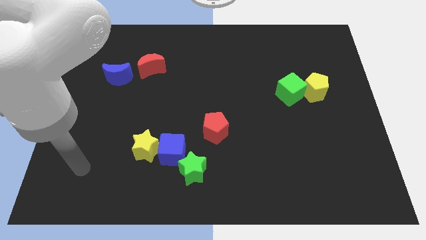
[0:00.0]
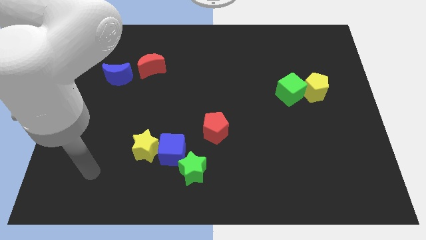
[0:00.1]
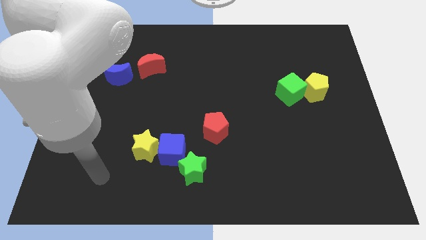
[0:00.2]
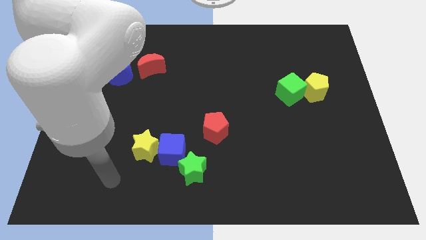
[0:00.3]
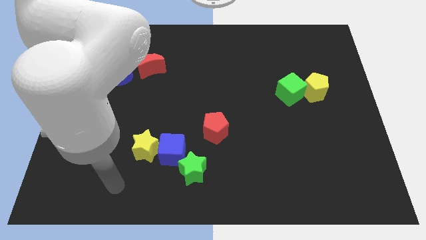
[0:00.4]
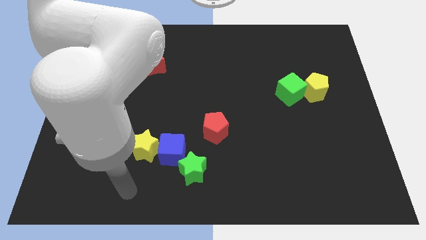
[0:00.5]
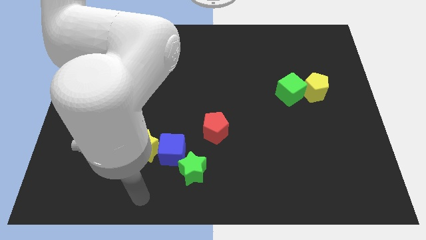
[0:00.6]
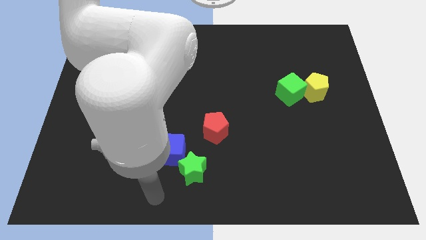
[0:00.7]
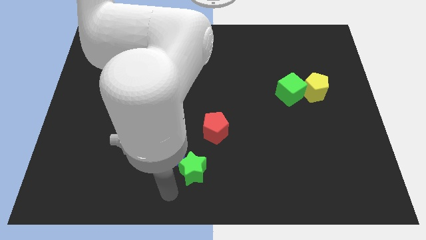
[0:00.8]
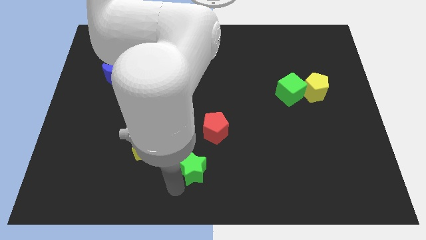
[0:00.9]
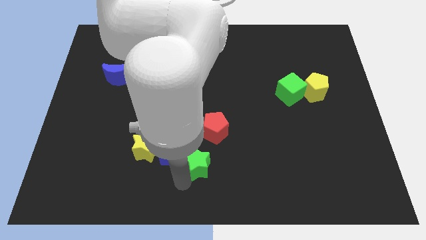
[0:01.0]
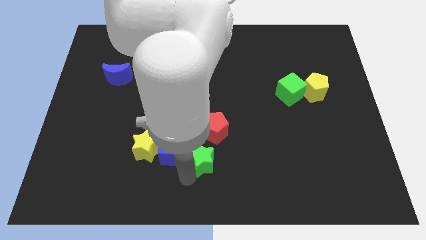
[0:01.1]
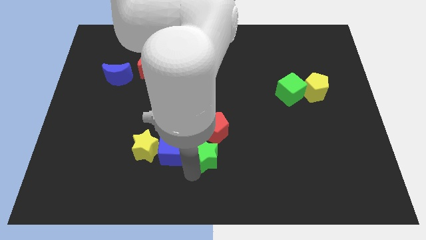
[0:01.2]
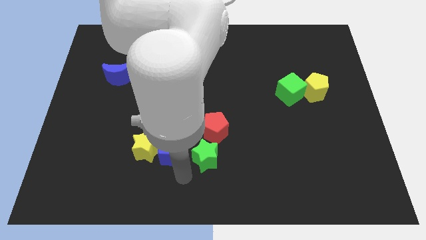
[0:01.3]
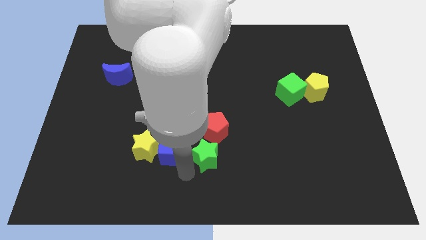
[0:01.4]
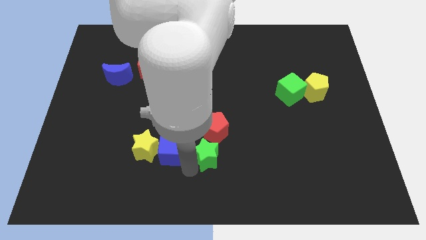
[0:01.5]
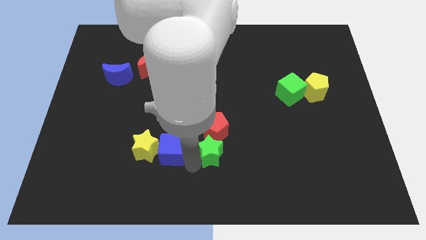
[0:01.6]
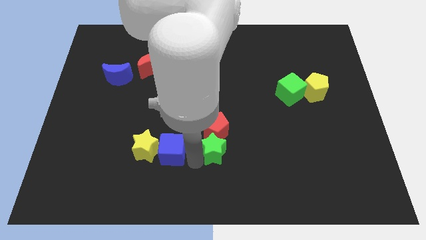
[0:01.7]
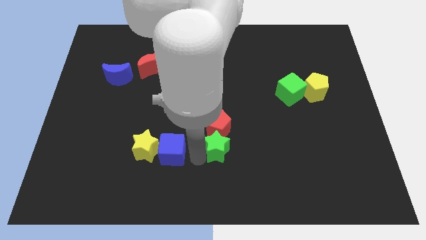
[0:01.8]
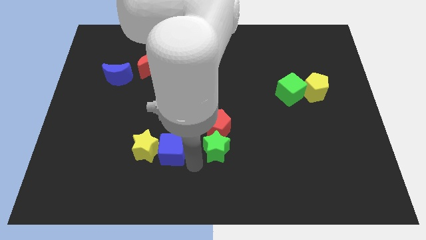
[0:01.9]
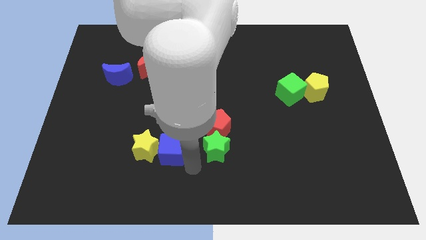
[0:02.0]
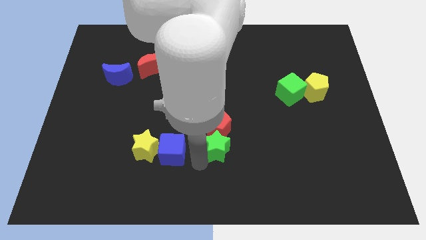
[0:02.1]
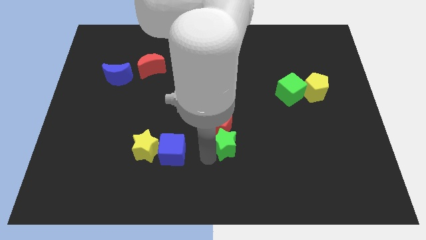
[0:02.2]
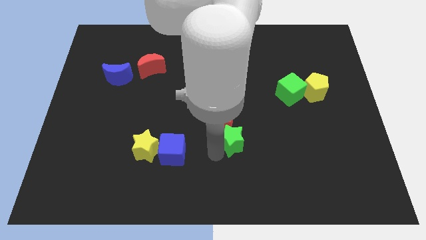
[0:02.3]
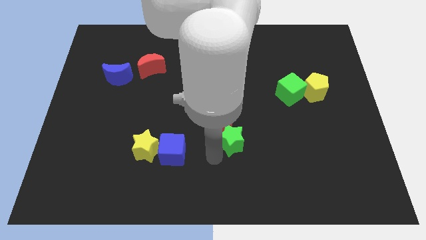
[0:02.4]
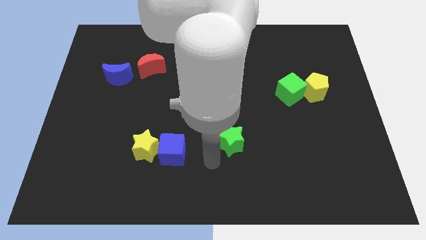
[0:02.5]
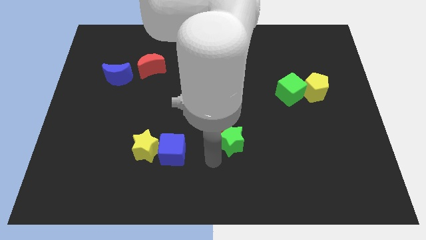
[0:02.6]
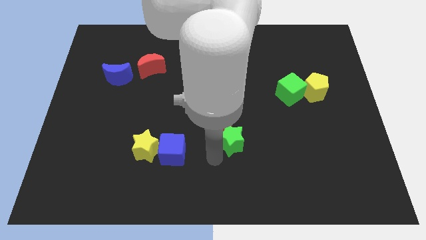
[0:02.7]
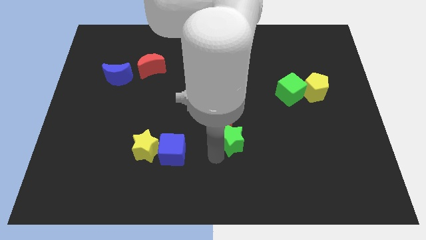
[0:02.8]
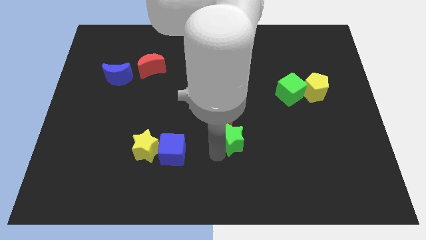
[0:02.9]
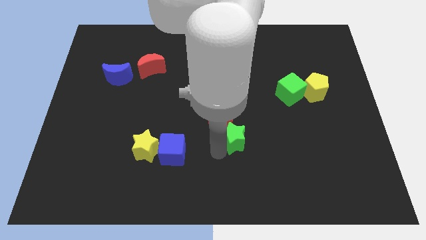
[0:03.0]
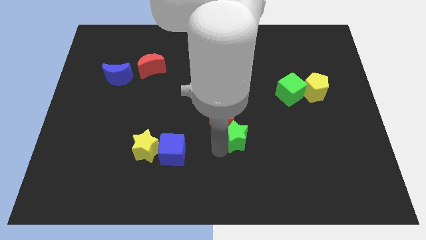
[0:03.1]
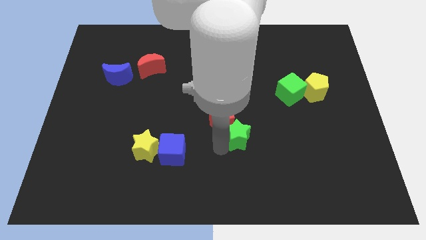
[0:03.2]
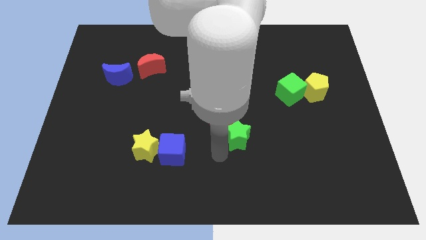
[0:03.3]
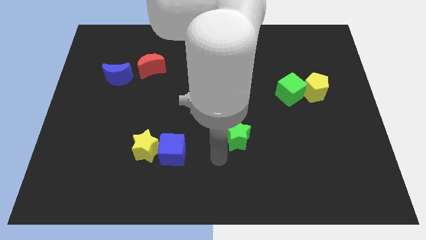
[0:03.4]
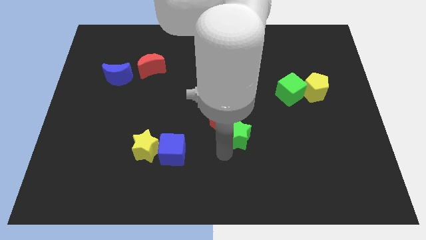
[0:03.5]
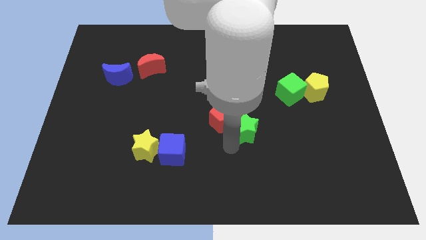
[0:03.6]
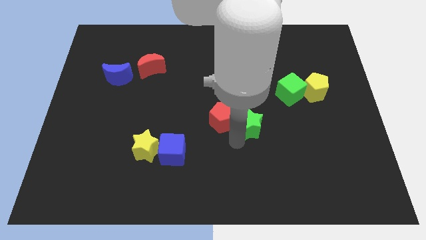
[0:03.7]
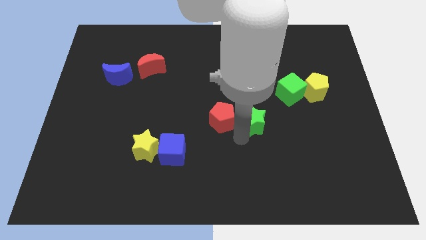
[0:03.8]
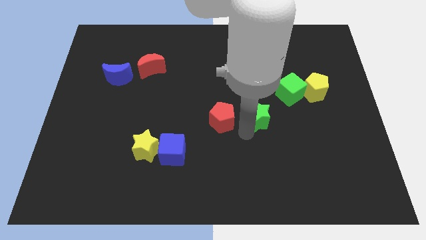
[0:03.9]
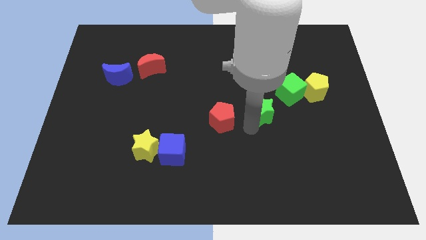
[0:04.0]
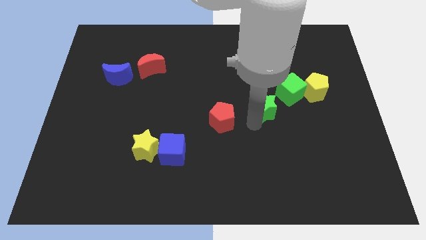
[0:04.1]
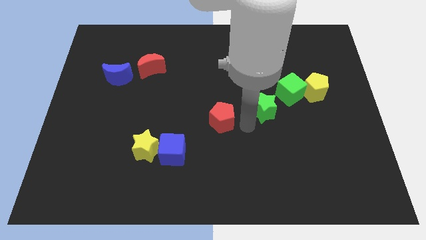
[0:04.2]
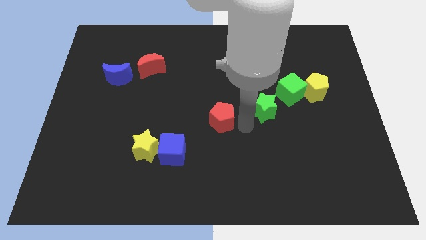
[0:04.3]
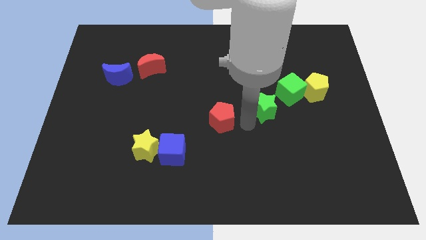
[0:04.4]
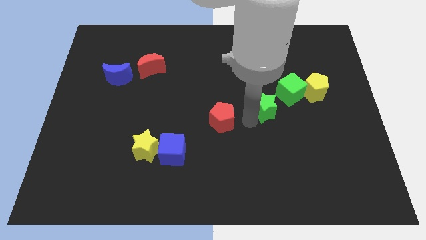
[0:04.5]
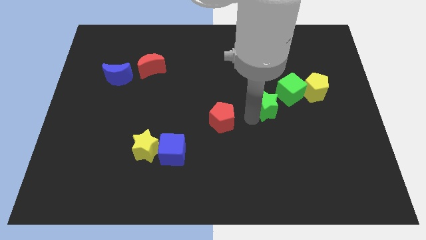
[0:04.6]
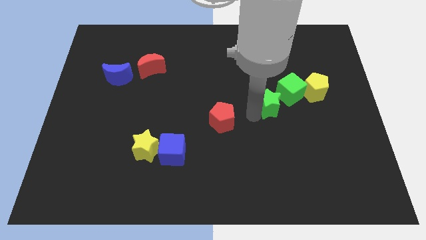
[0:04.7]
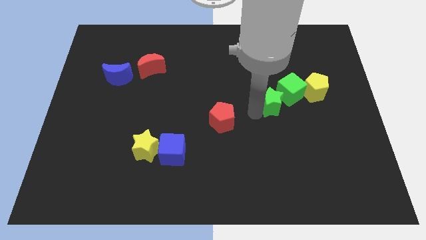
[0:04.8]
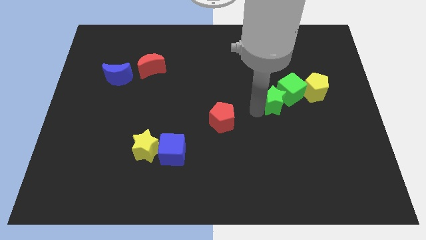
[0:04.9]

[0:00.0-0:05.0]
put the green star close to the green cube

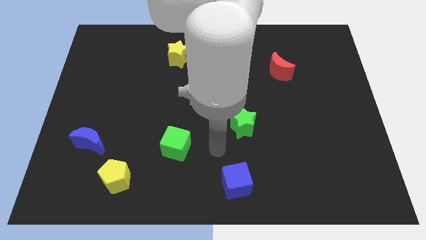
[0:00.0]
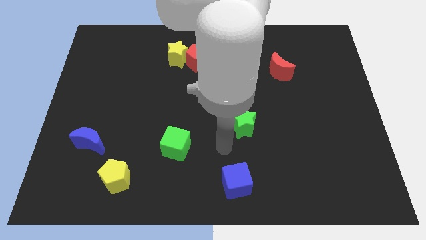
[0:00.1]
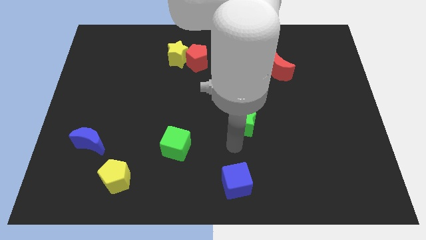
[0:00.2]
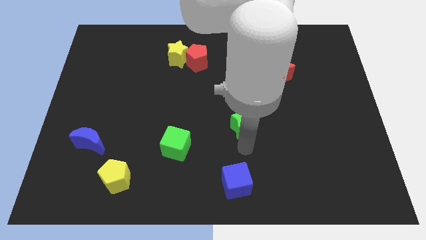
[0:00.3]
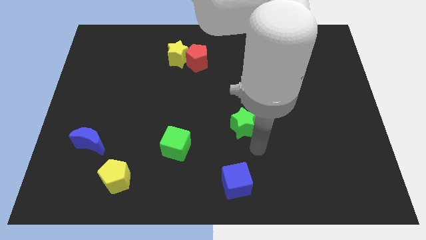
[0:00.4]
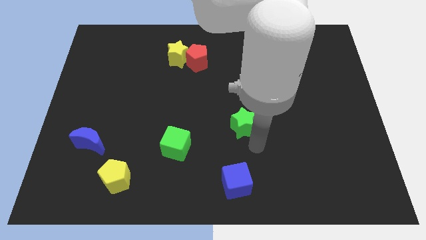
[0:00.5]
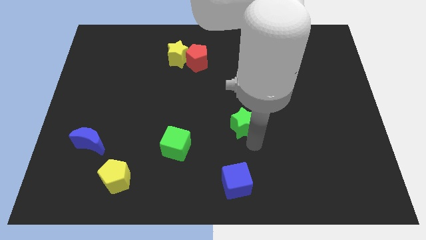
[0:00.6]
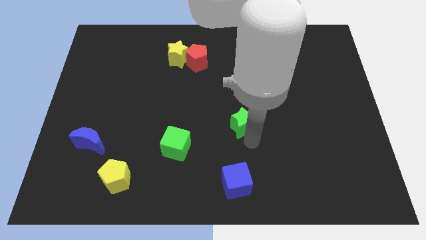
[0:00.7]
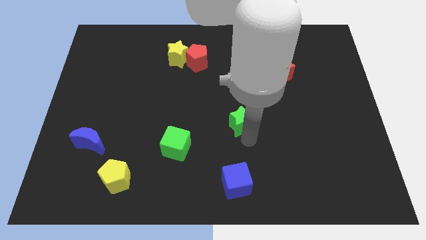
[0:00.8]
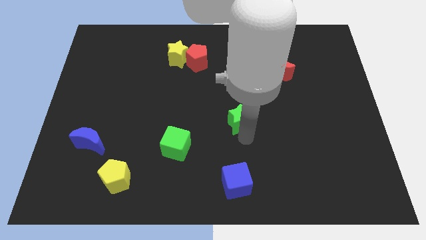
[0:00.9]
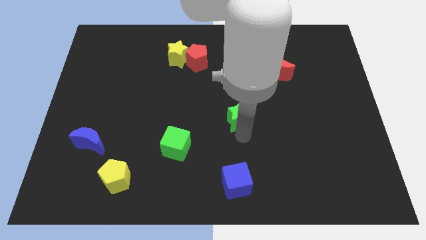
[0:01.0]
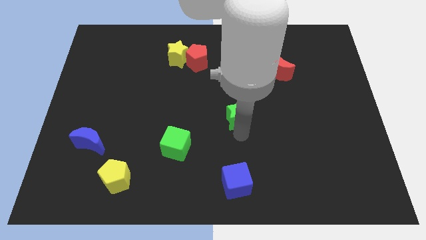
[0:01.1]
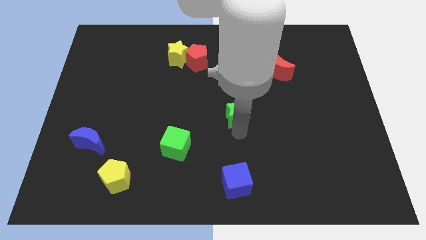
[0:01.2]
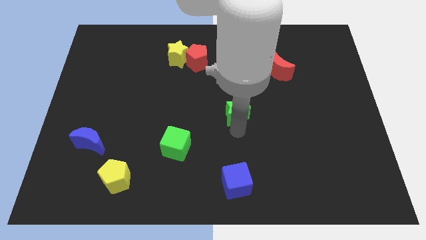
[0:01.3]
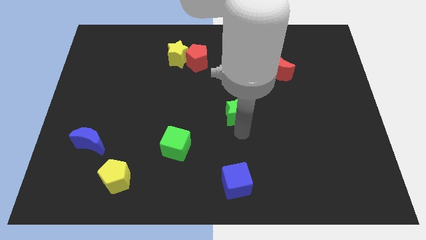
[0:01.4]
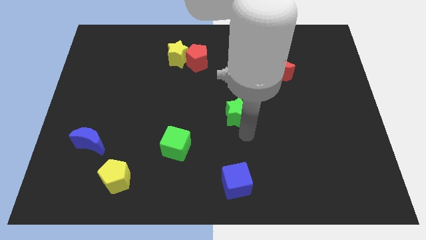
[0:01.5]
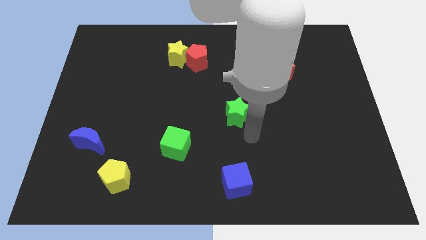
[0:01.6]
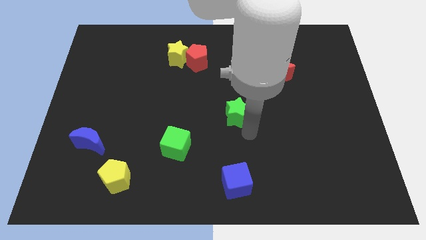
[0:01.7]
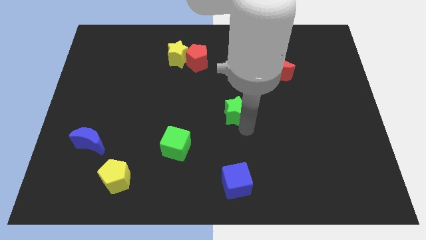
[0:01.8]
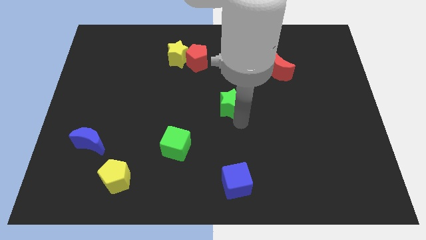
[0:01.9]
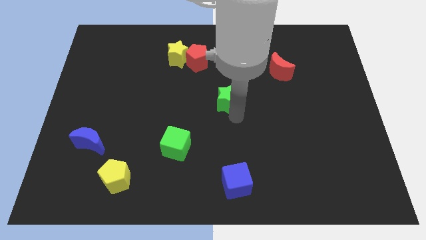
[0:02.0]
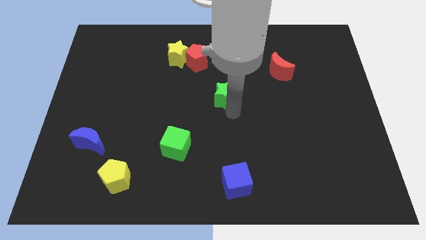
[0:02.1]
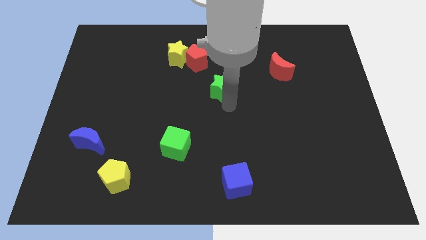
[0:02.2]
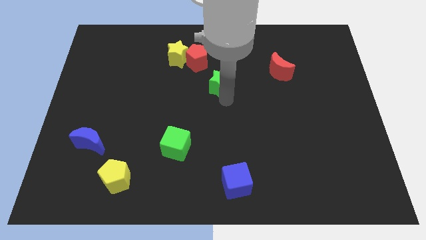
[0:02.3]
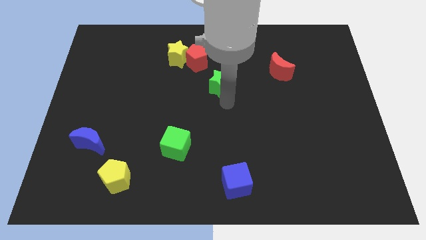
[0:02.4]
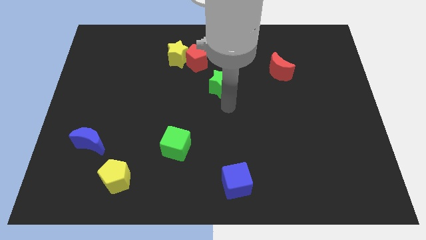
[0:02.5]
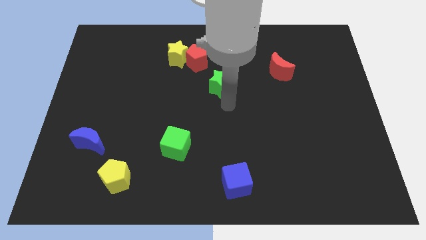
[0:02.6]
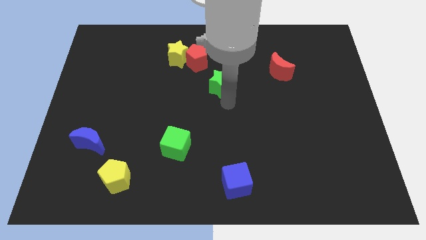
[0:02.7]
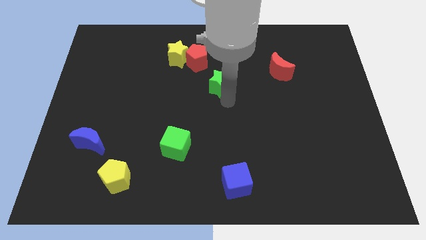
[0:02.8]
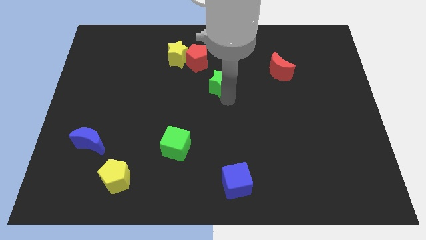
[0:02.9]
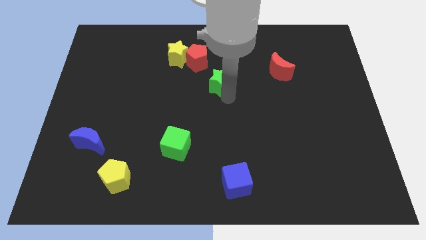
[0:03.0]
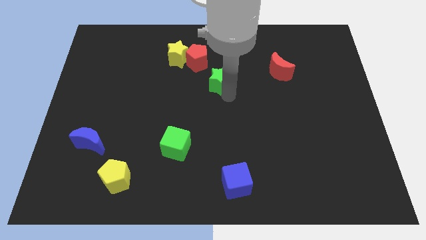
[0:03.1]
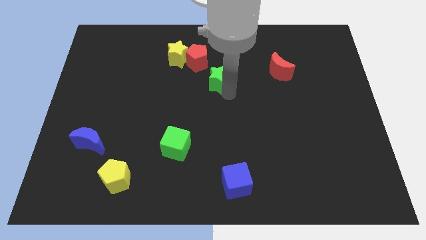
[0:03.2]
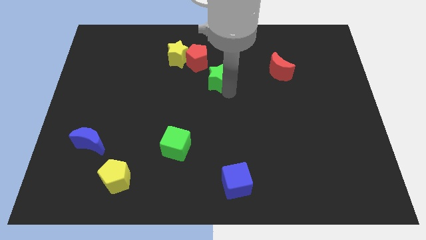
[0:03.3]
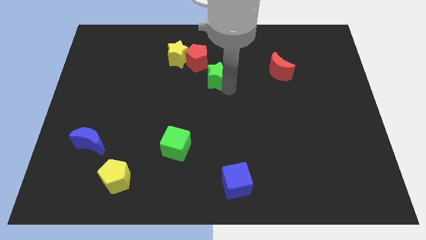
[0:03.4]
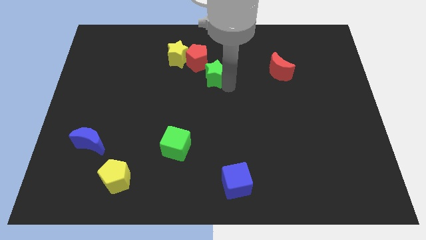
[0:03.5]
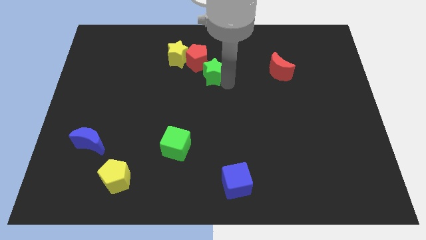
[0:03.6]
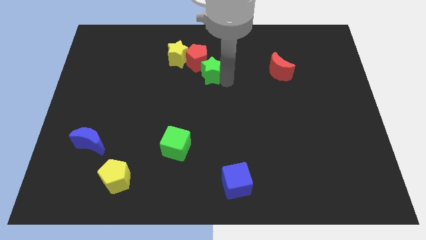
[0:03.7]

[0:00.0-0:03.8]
push the green star towards the red pentagon
